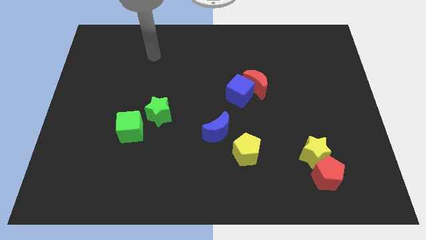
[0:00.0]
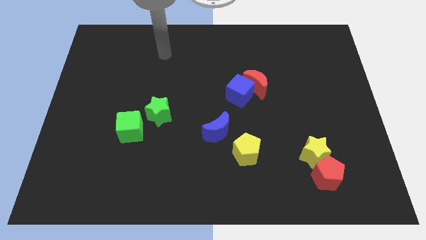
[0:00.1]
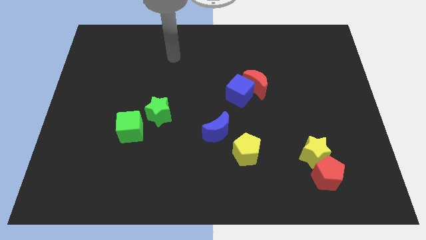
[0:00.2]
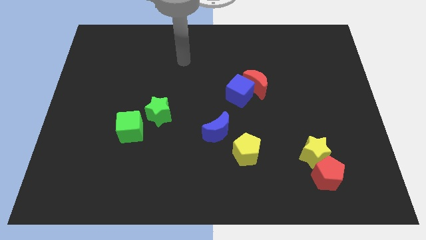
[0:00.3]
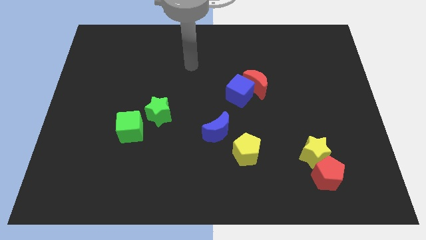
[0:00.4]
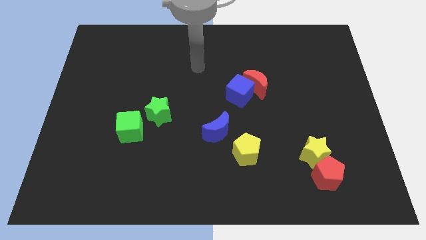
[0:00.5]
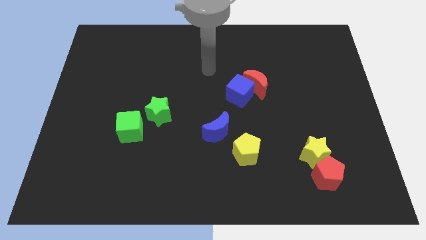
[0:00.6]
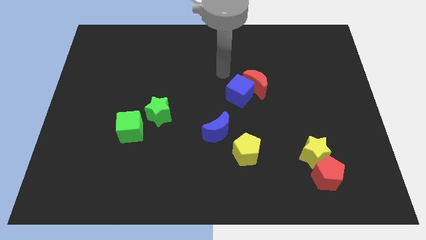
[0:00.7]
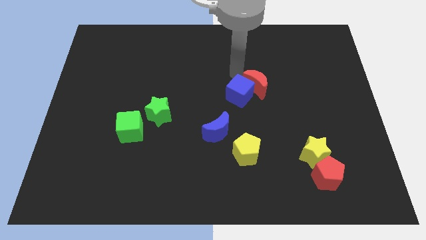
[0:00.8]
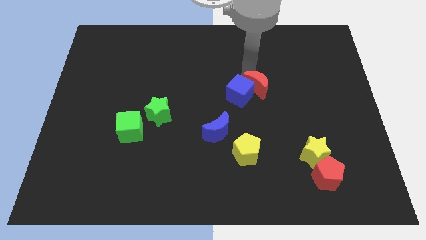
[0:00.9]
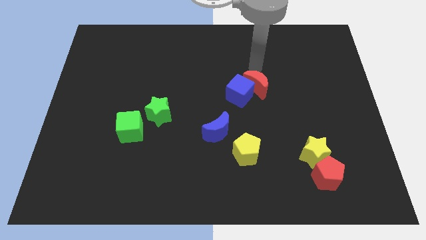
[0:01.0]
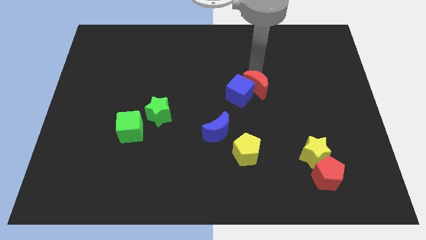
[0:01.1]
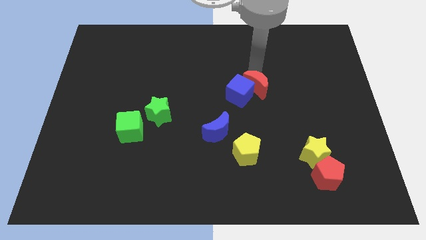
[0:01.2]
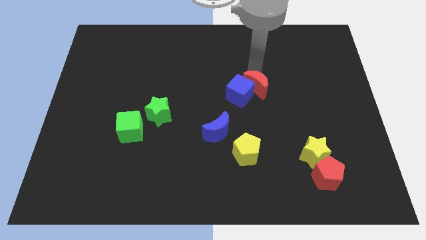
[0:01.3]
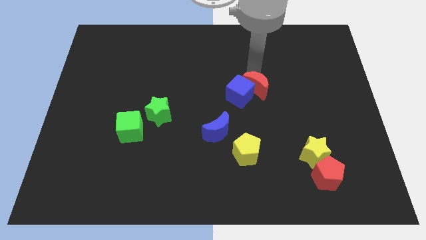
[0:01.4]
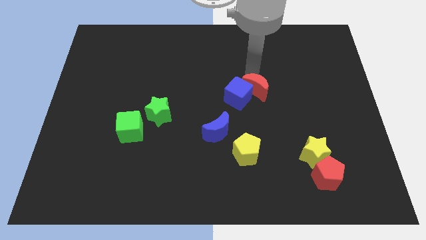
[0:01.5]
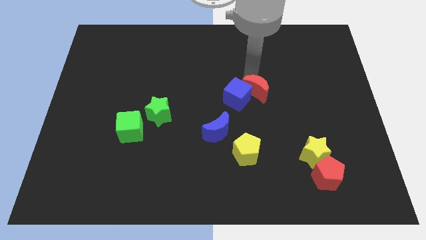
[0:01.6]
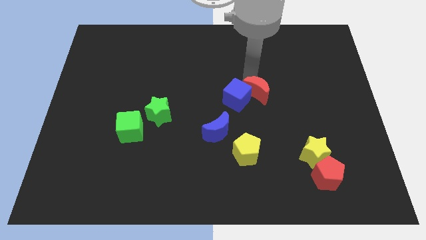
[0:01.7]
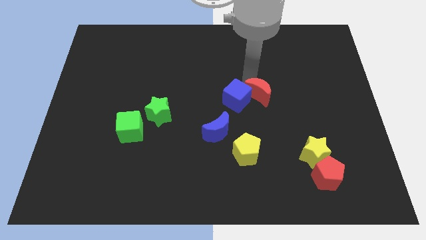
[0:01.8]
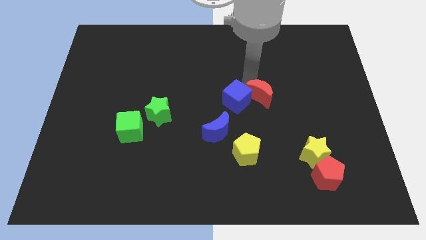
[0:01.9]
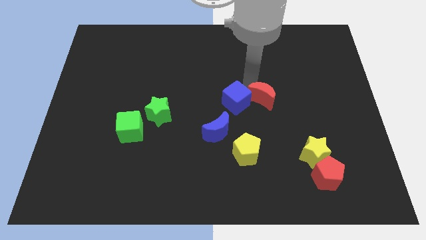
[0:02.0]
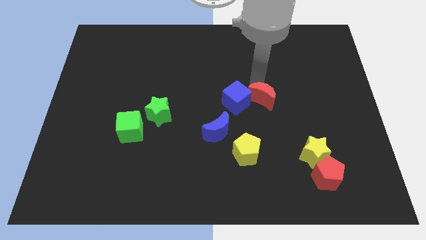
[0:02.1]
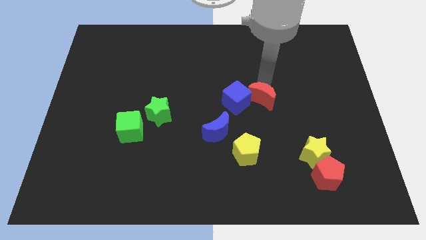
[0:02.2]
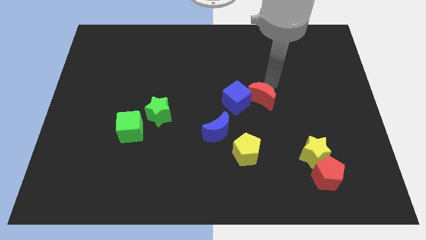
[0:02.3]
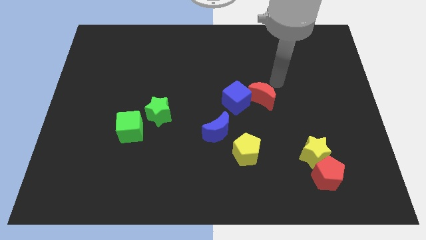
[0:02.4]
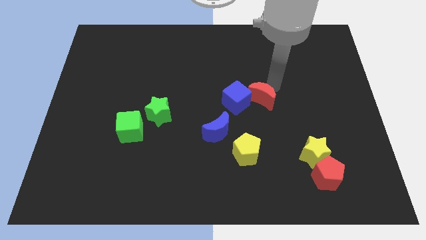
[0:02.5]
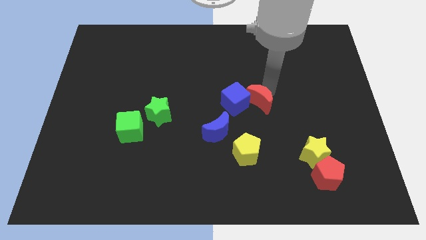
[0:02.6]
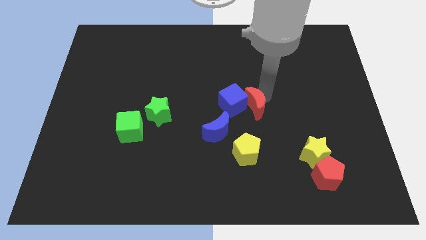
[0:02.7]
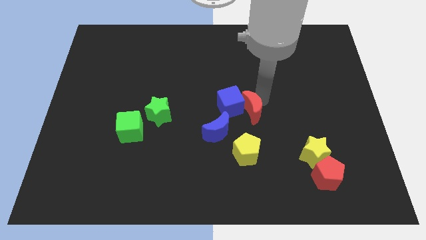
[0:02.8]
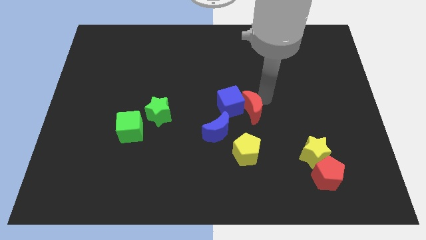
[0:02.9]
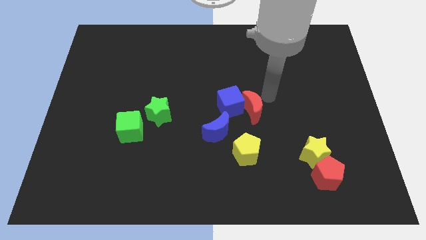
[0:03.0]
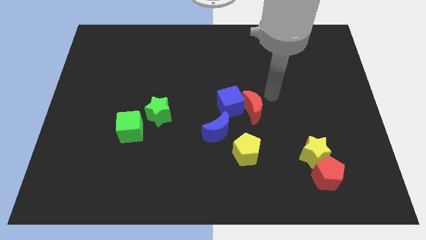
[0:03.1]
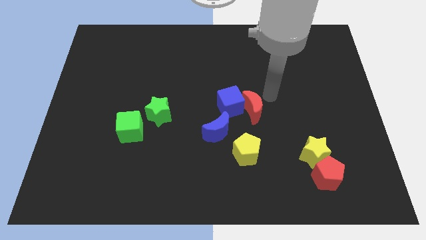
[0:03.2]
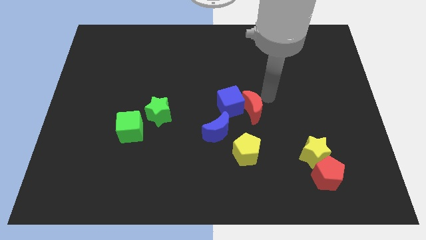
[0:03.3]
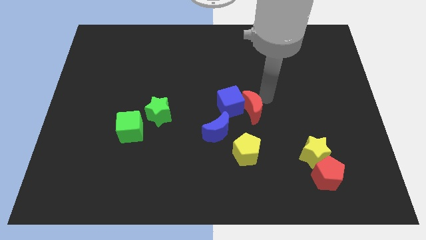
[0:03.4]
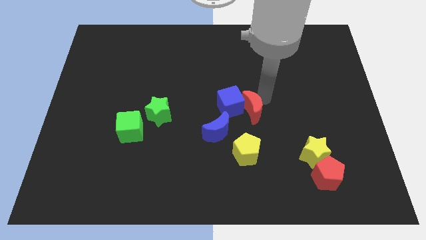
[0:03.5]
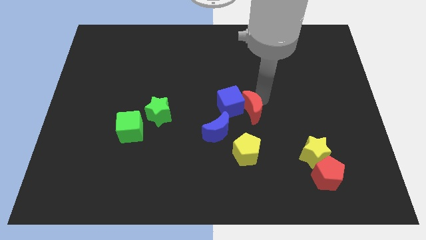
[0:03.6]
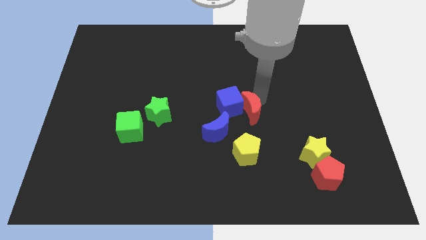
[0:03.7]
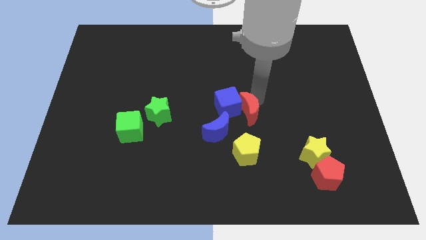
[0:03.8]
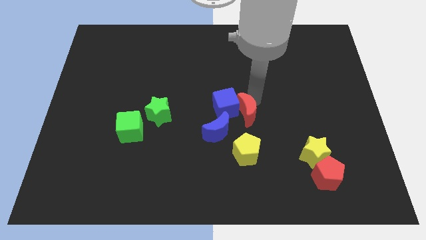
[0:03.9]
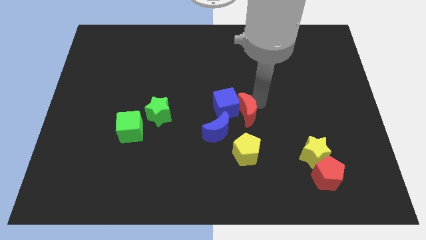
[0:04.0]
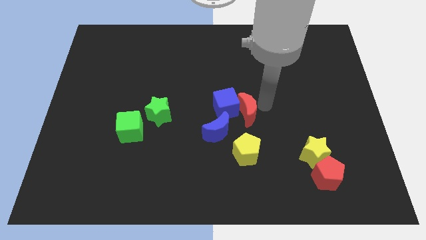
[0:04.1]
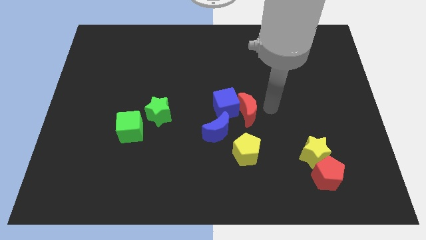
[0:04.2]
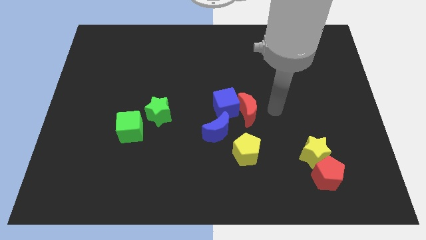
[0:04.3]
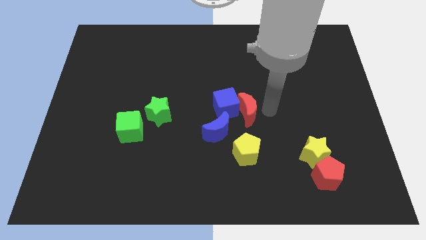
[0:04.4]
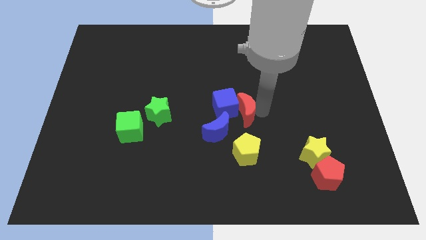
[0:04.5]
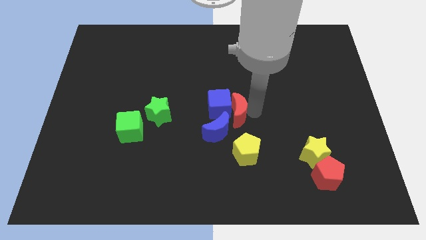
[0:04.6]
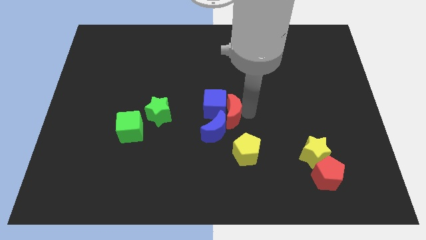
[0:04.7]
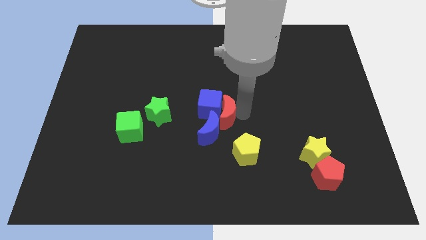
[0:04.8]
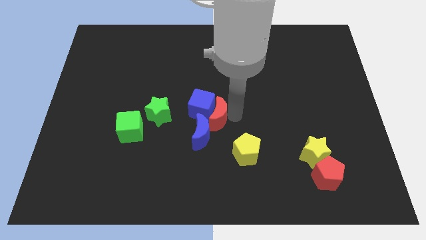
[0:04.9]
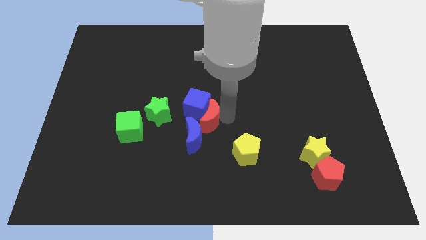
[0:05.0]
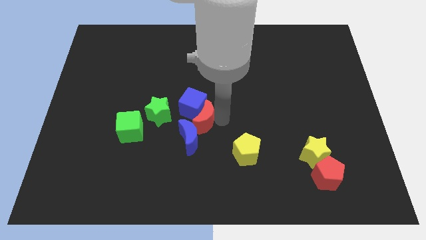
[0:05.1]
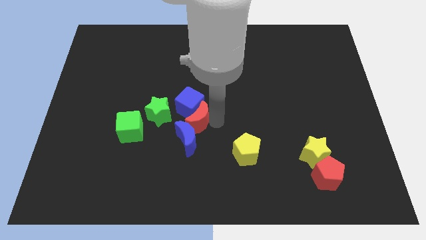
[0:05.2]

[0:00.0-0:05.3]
put the red moon right of the green cube

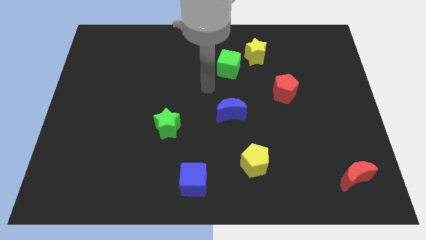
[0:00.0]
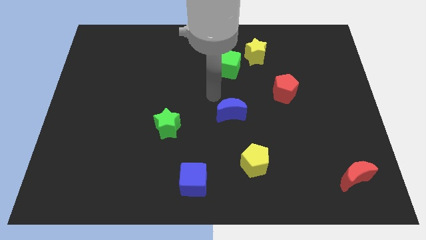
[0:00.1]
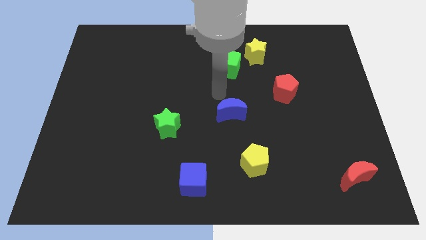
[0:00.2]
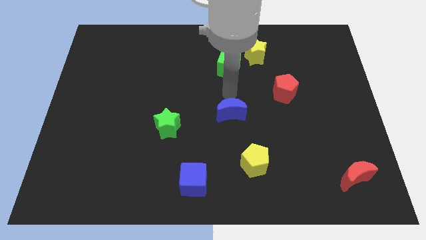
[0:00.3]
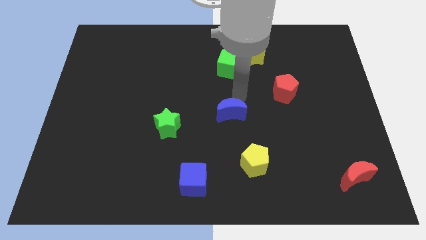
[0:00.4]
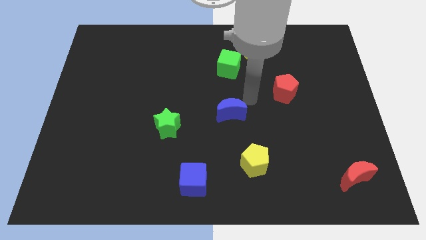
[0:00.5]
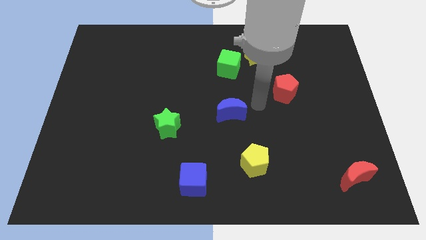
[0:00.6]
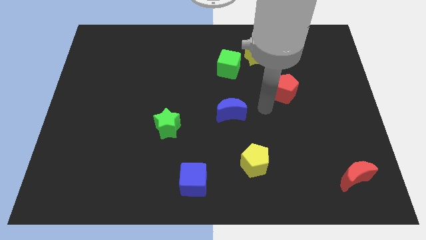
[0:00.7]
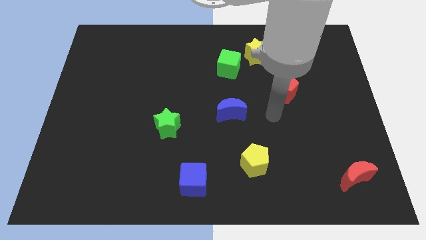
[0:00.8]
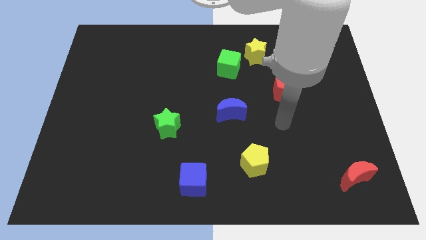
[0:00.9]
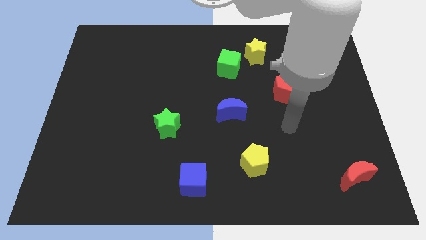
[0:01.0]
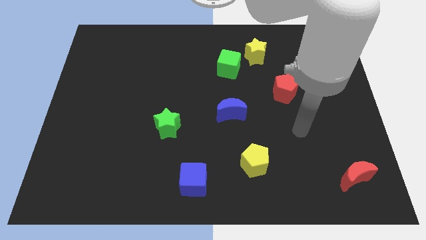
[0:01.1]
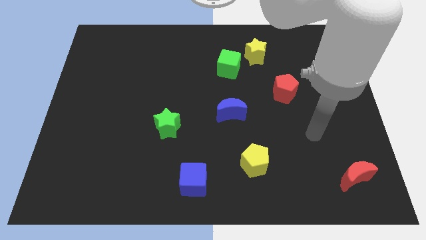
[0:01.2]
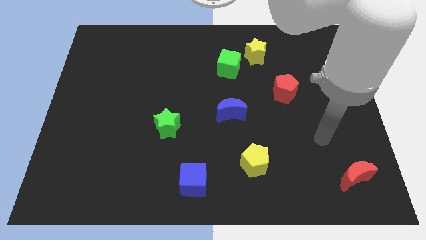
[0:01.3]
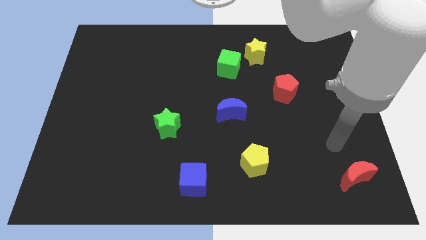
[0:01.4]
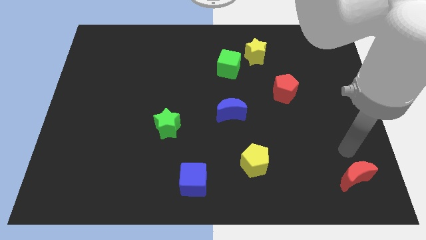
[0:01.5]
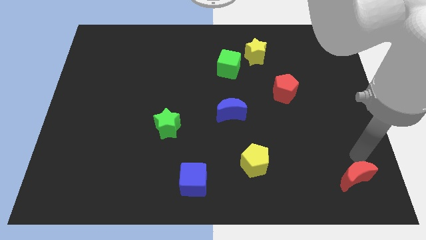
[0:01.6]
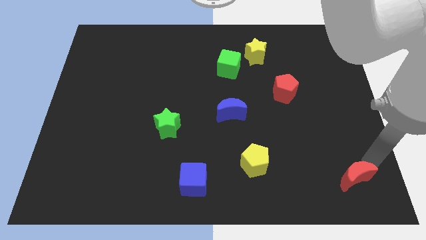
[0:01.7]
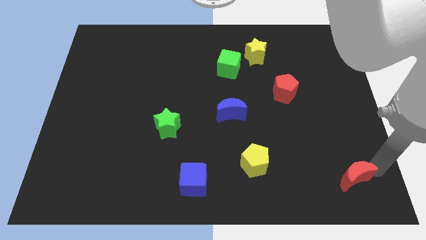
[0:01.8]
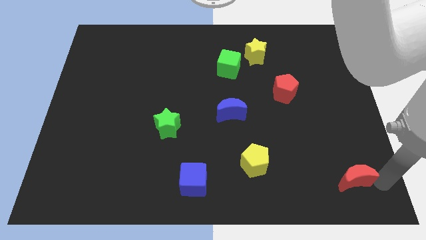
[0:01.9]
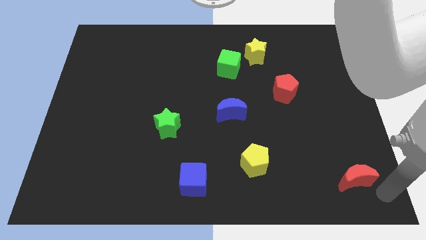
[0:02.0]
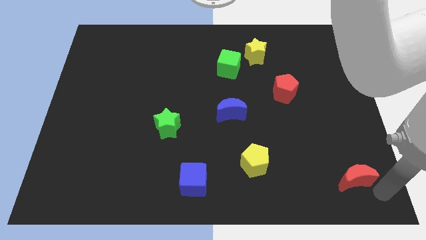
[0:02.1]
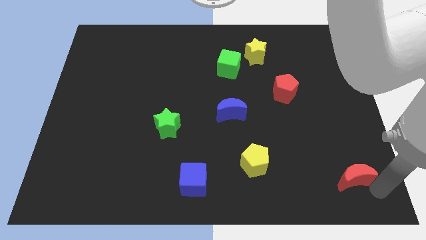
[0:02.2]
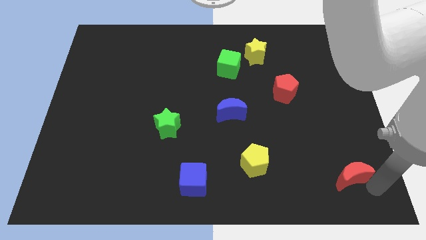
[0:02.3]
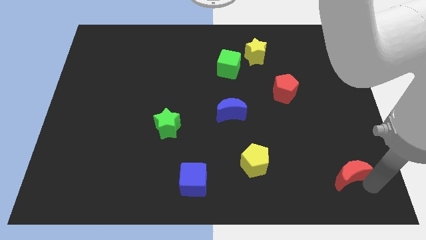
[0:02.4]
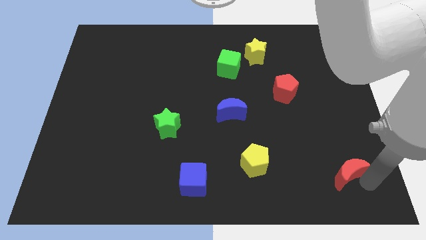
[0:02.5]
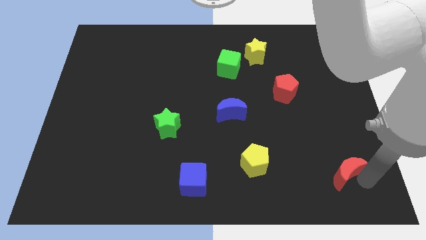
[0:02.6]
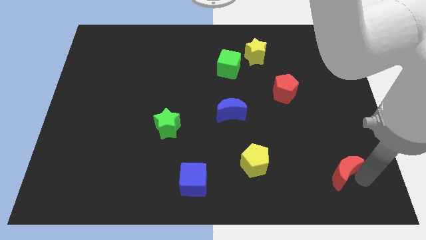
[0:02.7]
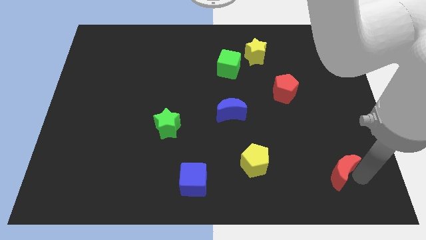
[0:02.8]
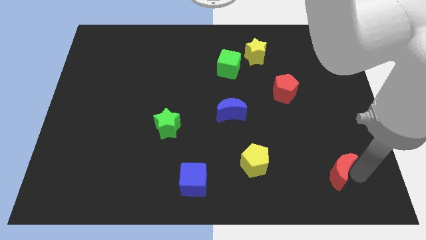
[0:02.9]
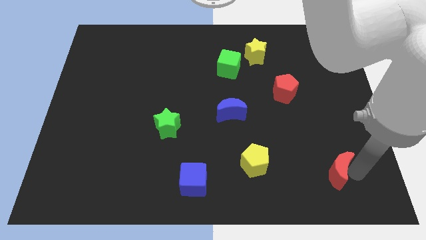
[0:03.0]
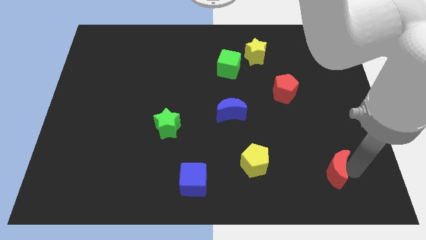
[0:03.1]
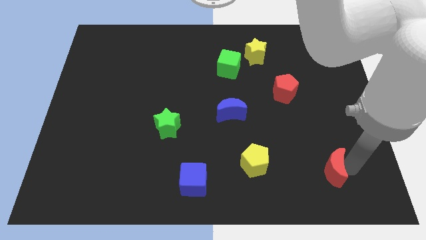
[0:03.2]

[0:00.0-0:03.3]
slide the red moon just right of the yellow pentagon
